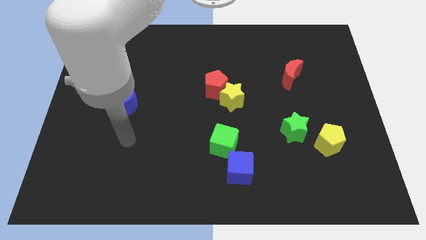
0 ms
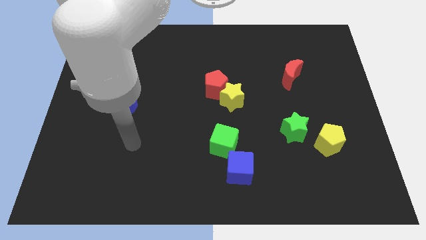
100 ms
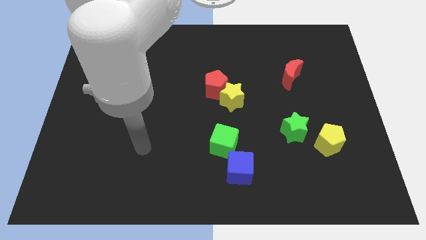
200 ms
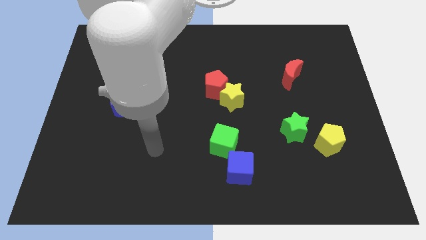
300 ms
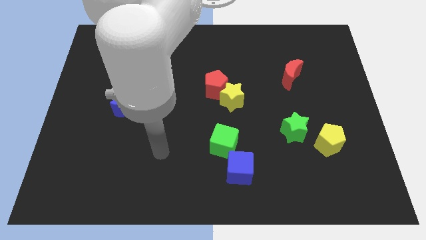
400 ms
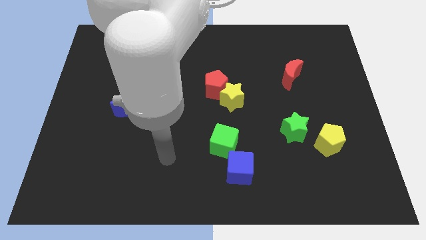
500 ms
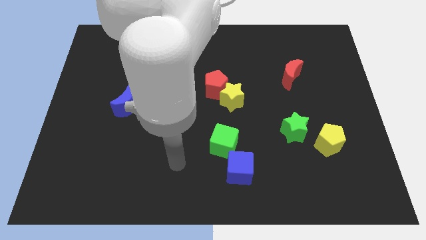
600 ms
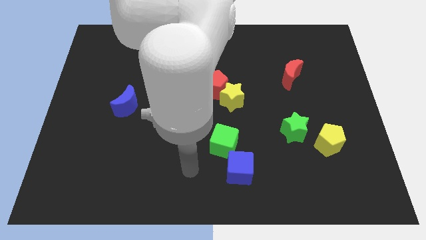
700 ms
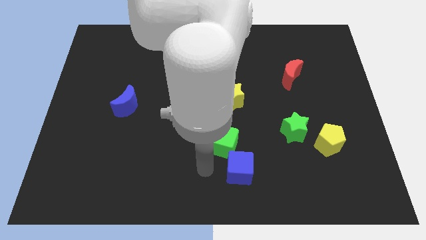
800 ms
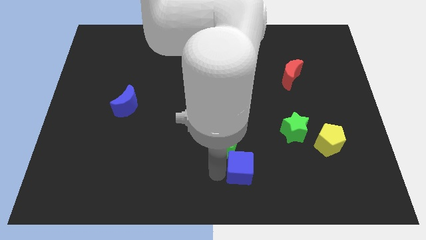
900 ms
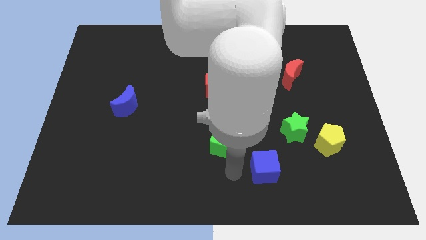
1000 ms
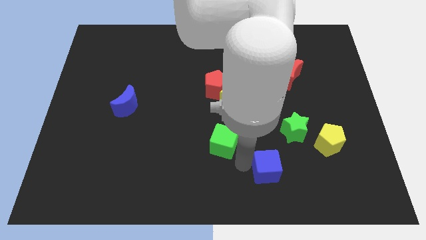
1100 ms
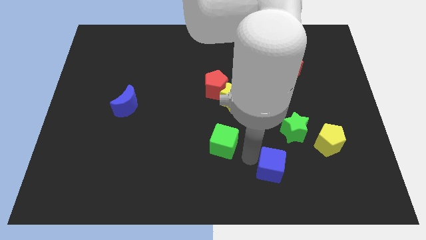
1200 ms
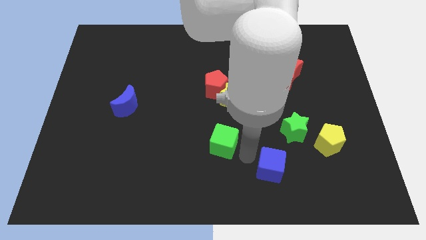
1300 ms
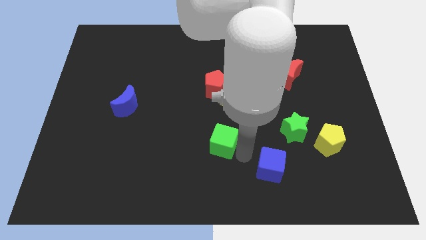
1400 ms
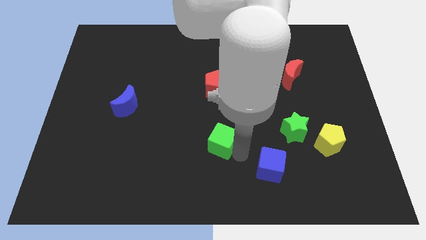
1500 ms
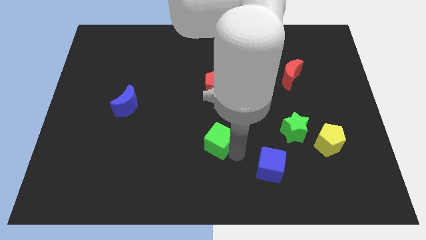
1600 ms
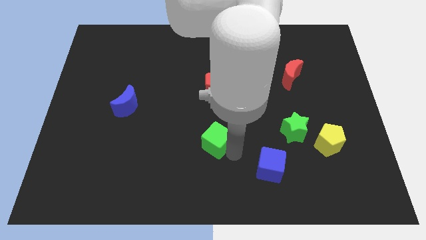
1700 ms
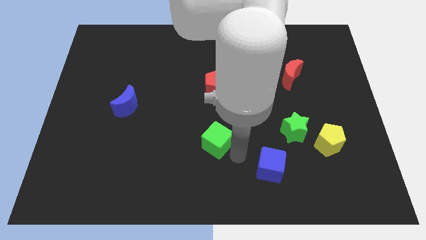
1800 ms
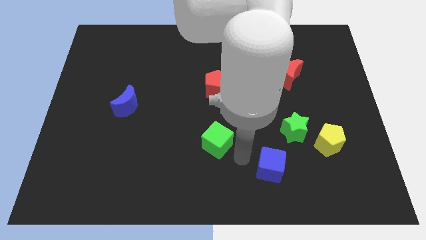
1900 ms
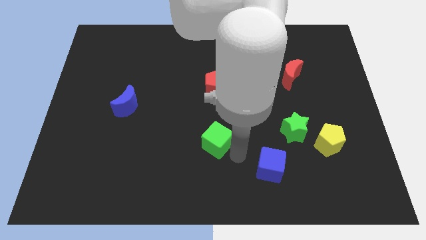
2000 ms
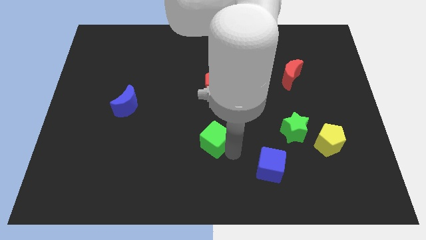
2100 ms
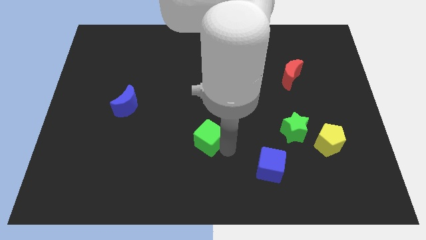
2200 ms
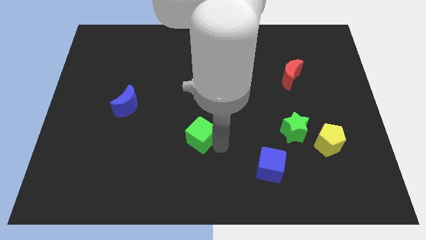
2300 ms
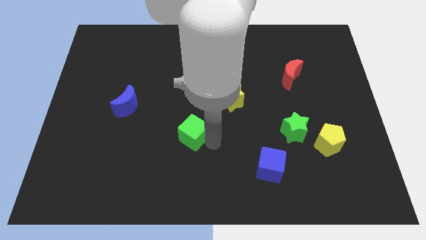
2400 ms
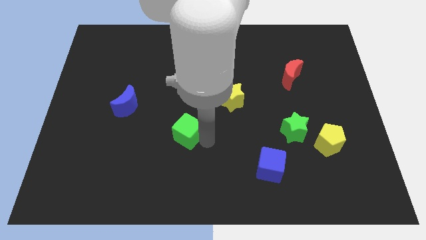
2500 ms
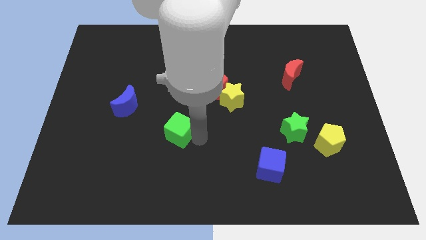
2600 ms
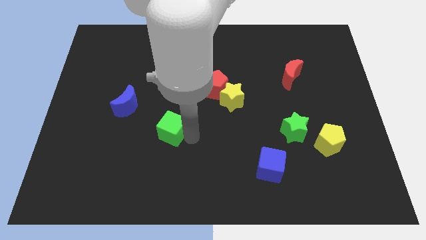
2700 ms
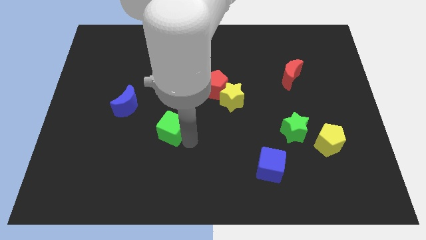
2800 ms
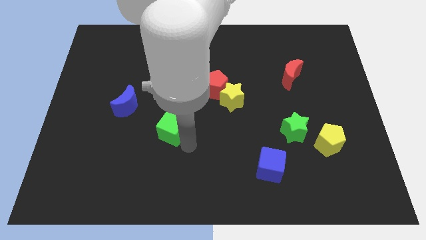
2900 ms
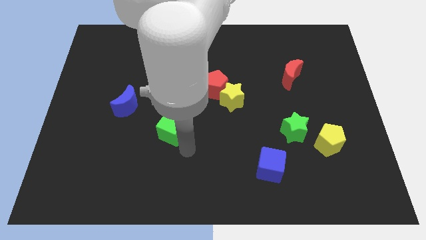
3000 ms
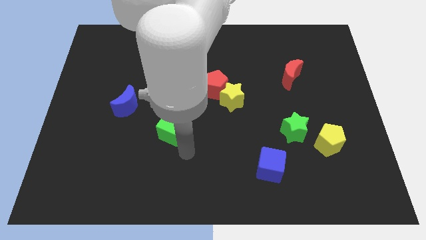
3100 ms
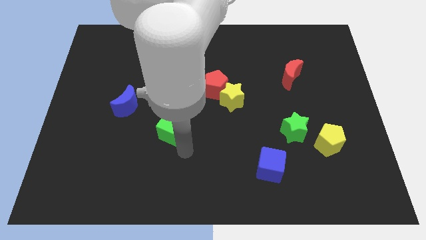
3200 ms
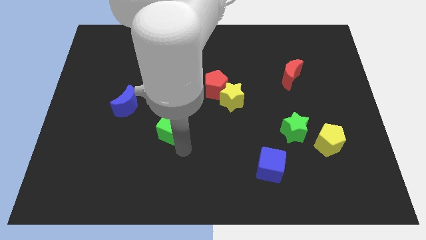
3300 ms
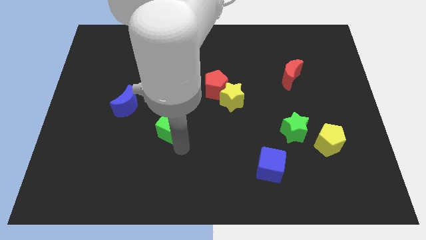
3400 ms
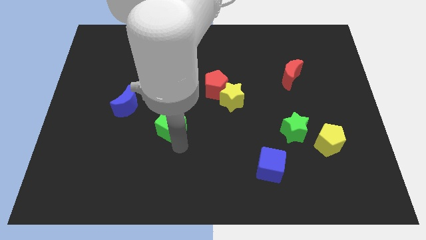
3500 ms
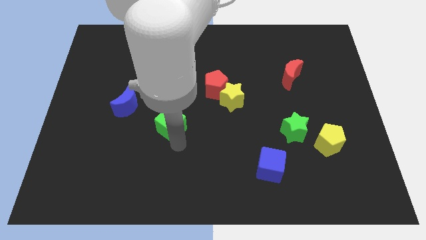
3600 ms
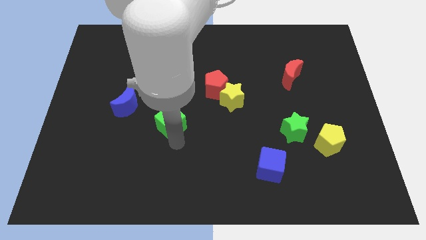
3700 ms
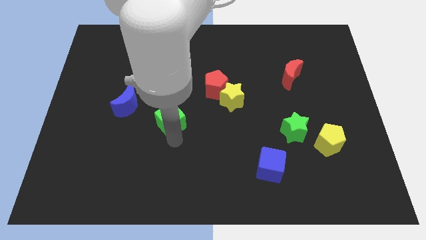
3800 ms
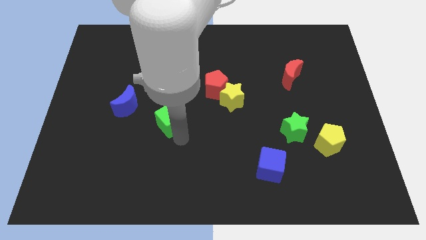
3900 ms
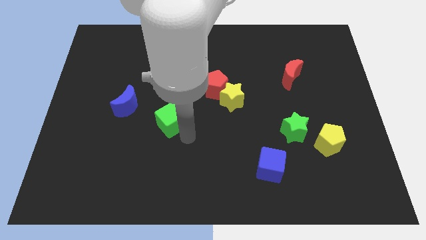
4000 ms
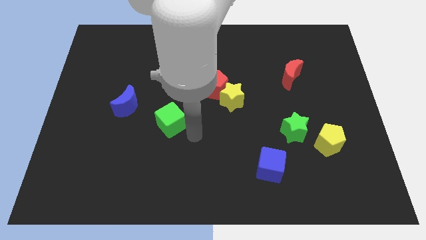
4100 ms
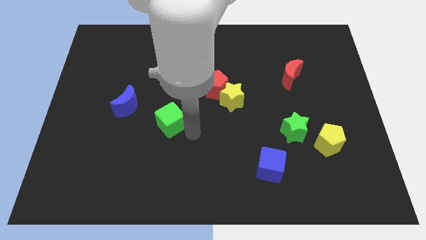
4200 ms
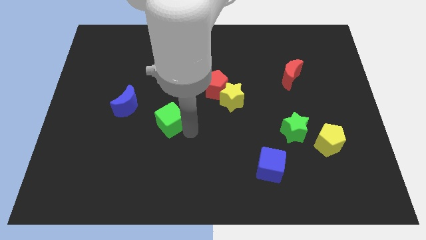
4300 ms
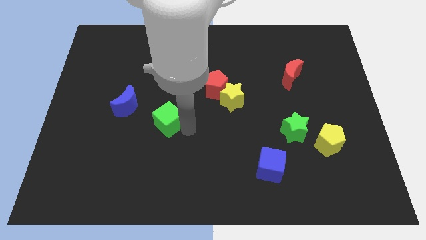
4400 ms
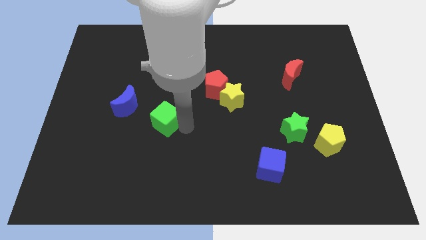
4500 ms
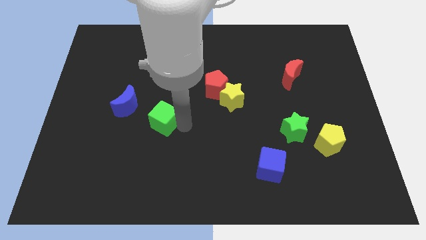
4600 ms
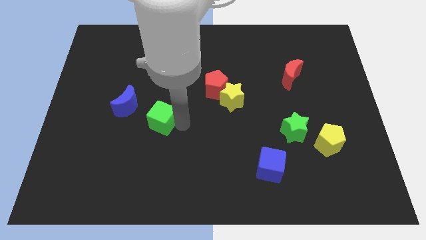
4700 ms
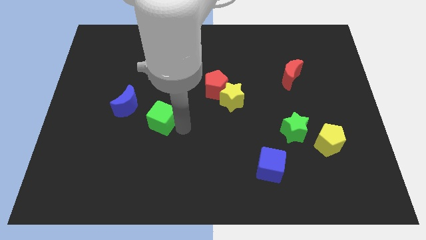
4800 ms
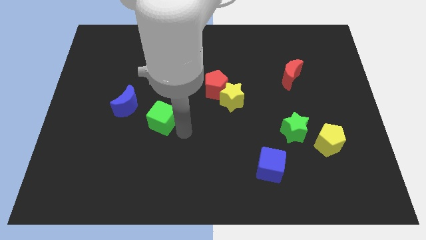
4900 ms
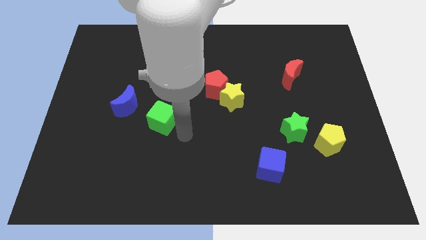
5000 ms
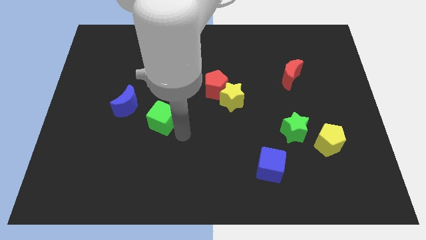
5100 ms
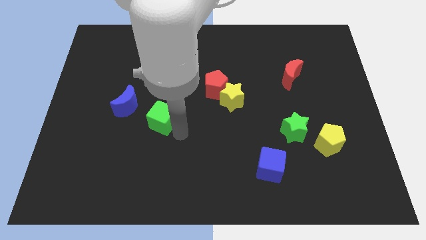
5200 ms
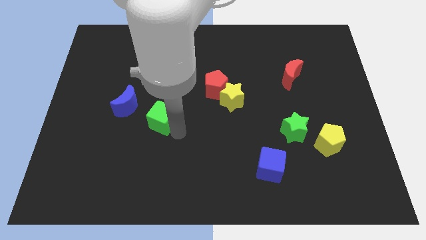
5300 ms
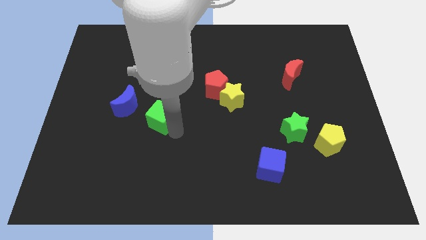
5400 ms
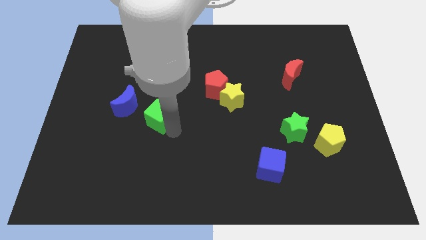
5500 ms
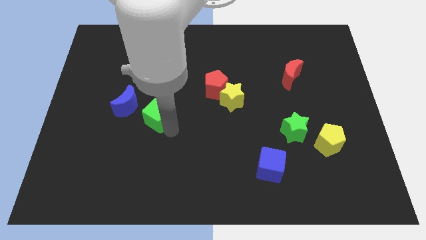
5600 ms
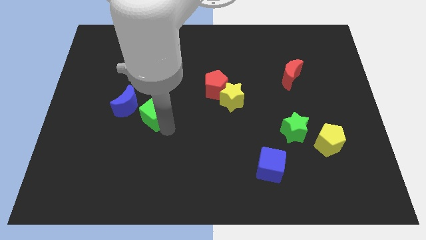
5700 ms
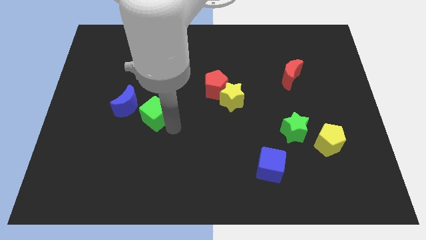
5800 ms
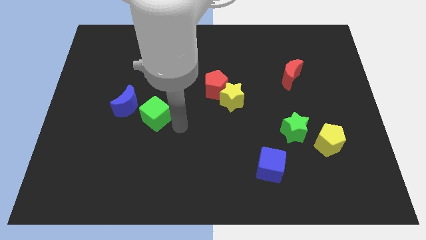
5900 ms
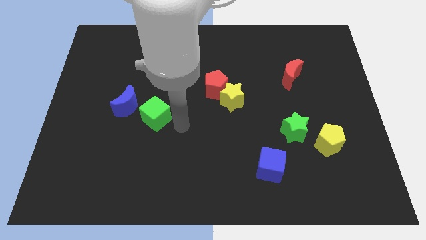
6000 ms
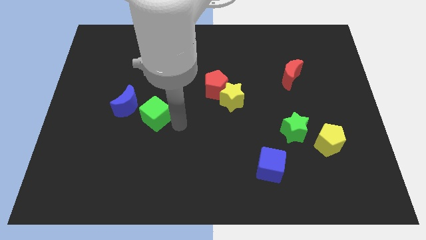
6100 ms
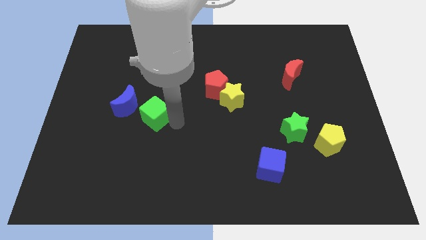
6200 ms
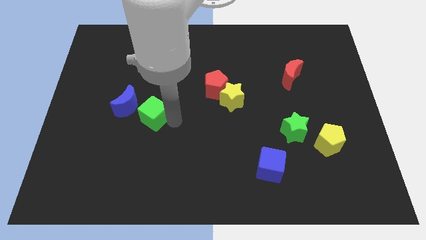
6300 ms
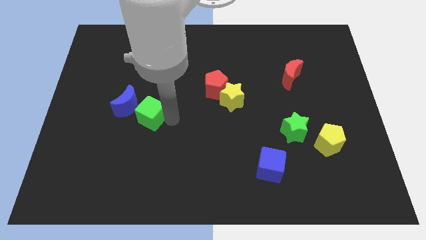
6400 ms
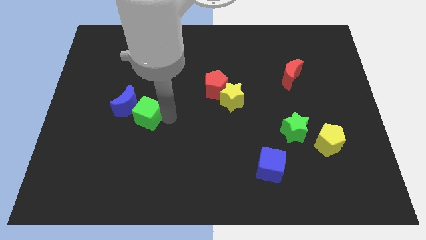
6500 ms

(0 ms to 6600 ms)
push the green cube to the blue moon

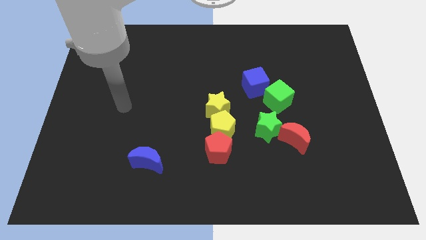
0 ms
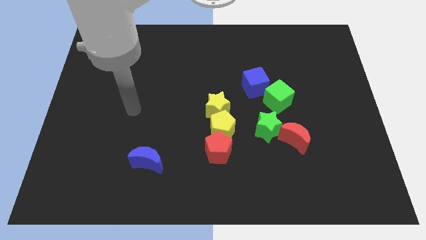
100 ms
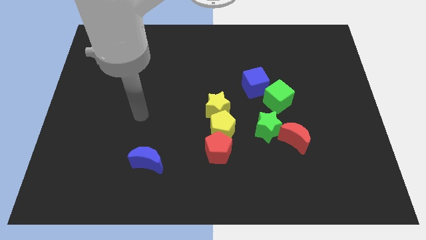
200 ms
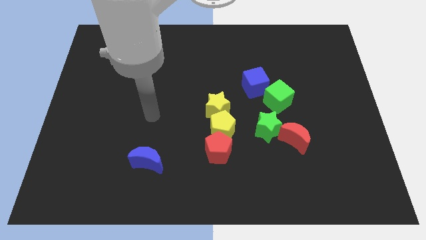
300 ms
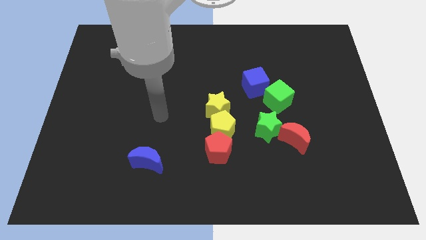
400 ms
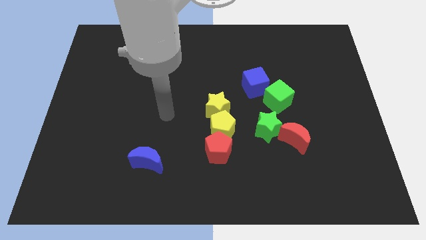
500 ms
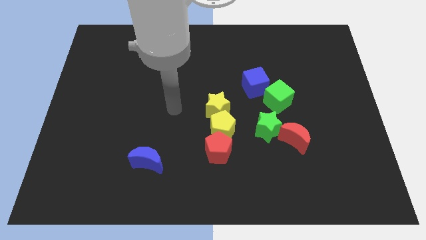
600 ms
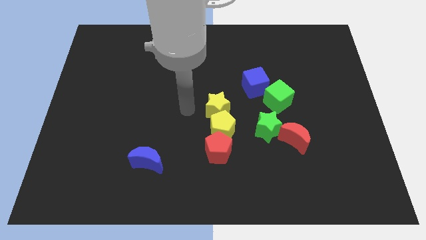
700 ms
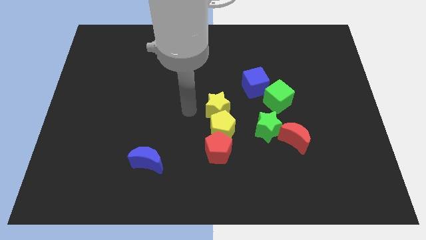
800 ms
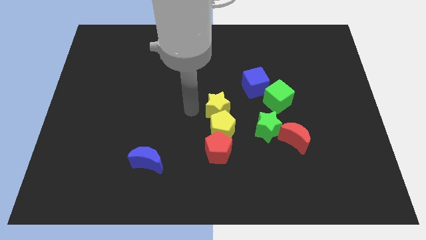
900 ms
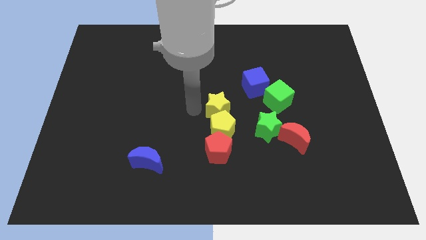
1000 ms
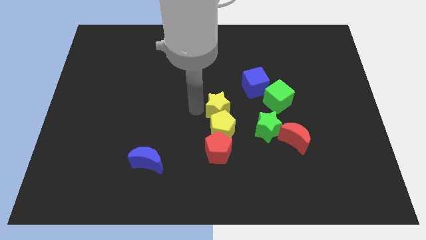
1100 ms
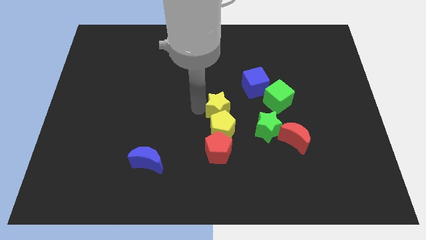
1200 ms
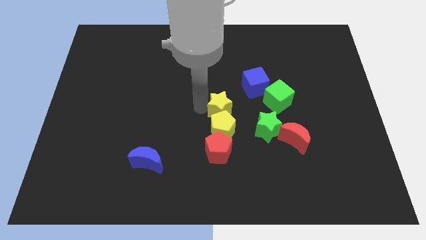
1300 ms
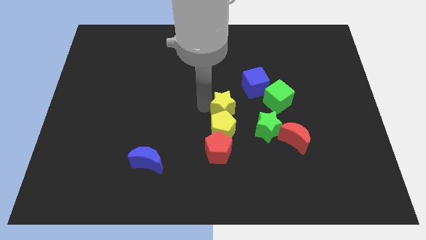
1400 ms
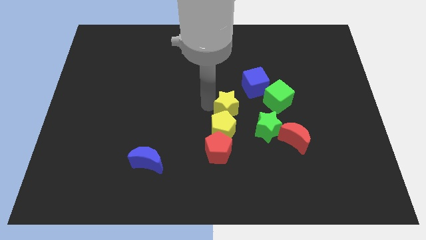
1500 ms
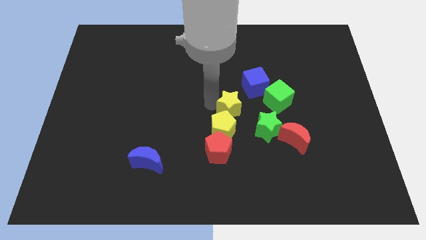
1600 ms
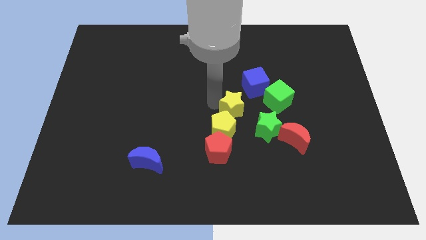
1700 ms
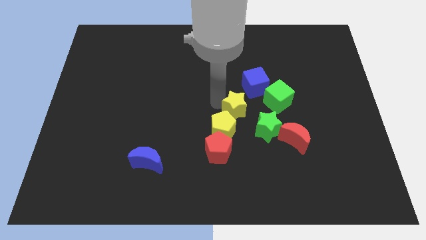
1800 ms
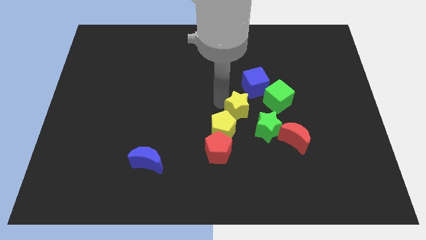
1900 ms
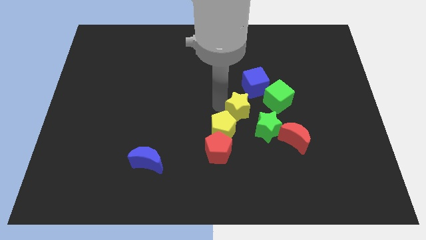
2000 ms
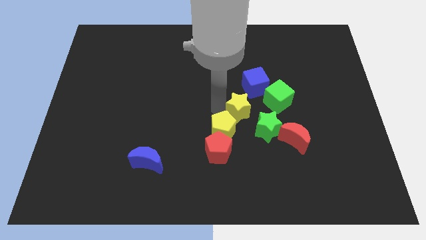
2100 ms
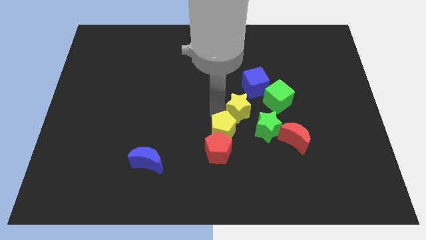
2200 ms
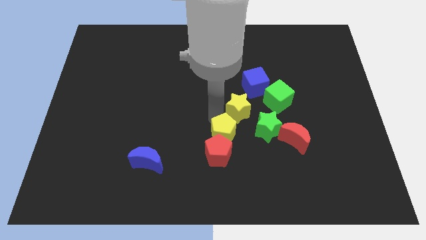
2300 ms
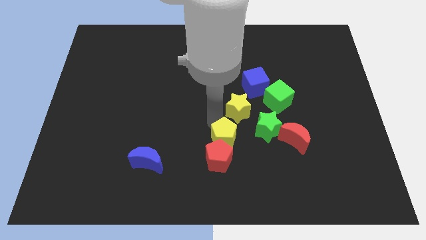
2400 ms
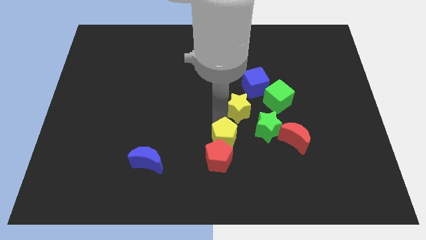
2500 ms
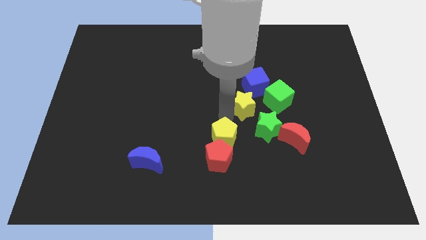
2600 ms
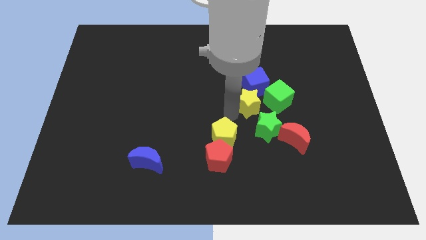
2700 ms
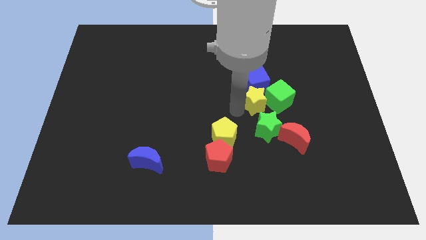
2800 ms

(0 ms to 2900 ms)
put the yellow star to the green cube
